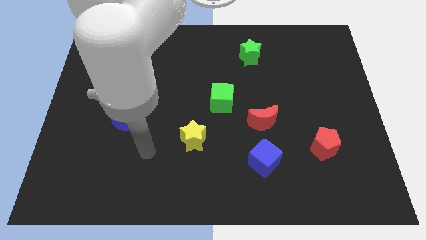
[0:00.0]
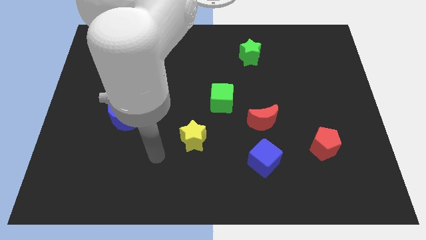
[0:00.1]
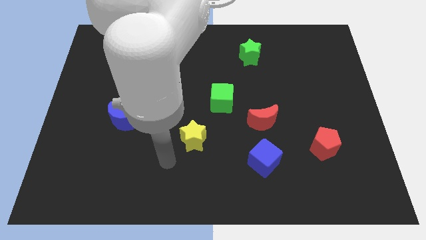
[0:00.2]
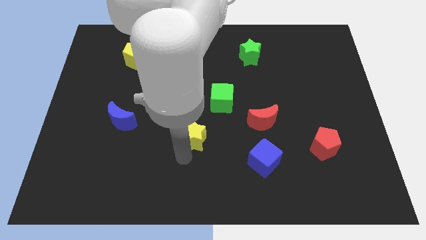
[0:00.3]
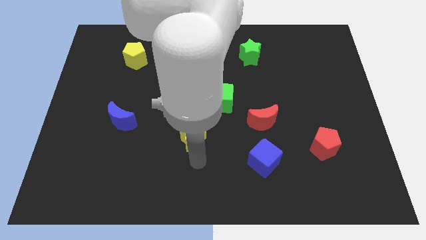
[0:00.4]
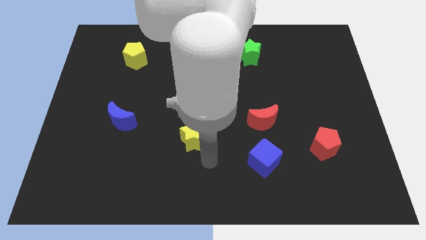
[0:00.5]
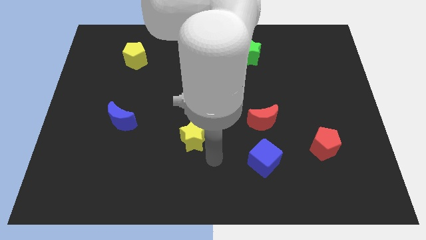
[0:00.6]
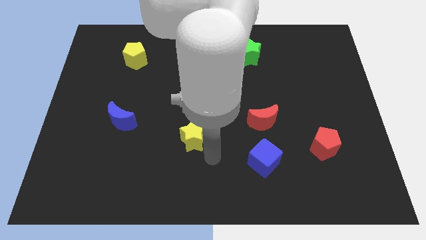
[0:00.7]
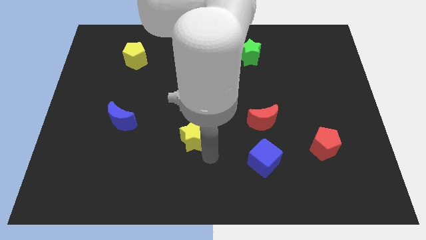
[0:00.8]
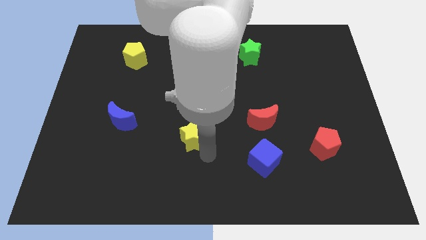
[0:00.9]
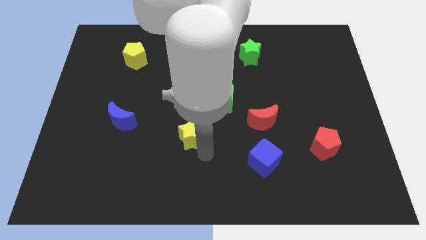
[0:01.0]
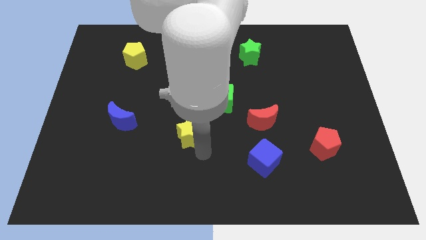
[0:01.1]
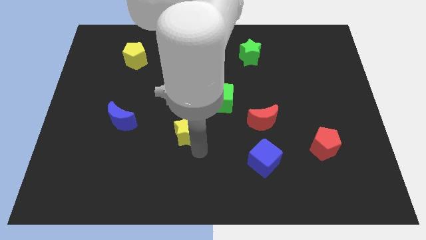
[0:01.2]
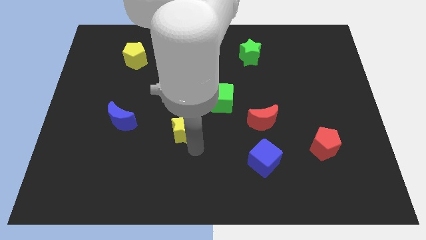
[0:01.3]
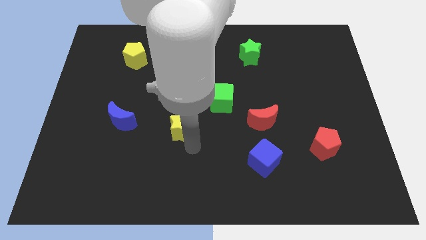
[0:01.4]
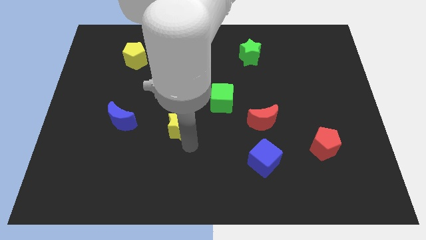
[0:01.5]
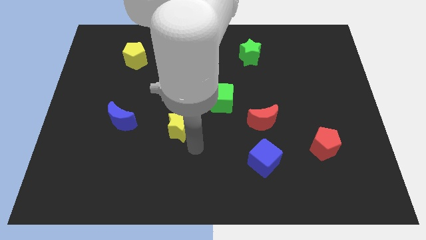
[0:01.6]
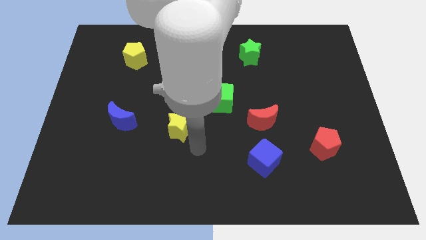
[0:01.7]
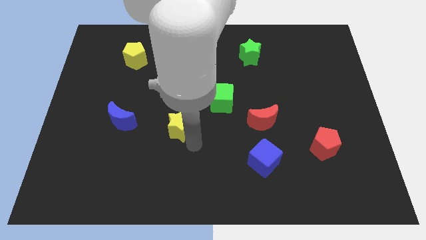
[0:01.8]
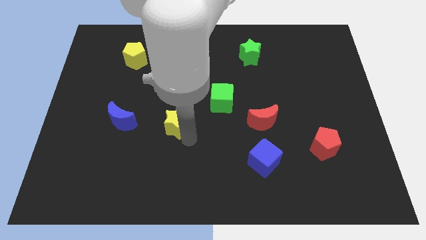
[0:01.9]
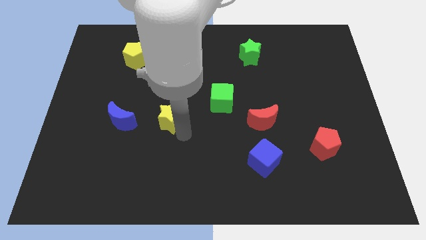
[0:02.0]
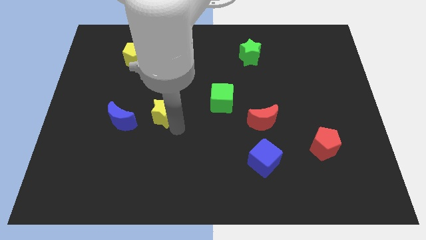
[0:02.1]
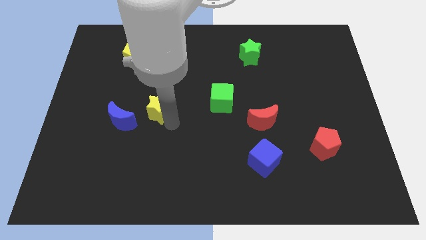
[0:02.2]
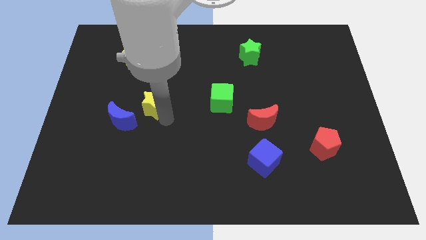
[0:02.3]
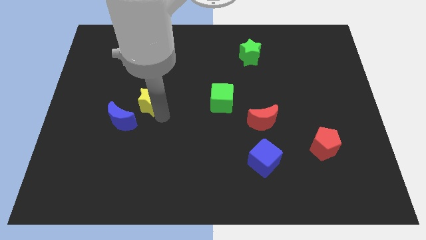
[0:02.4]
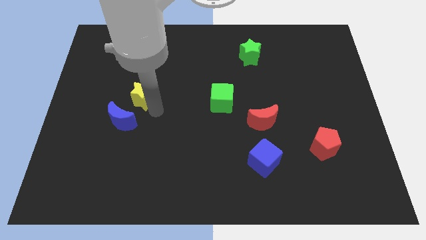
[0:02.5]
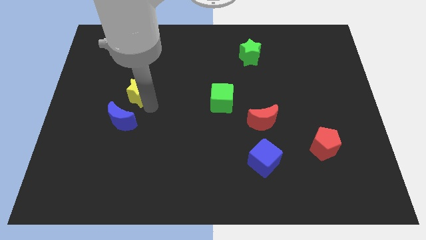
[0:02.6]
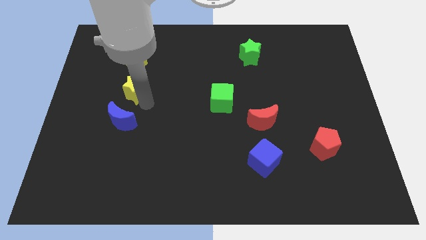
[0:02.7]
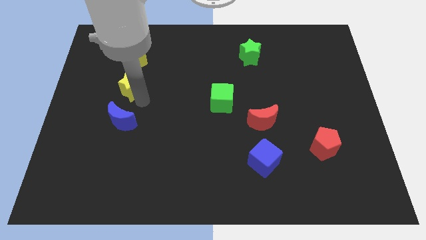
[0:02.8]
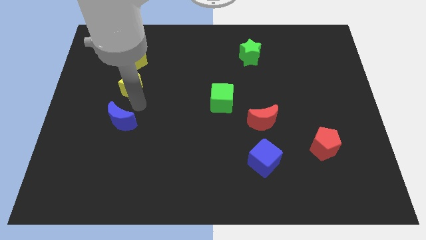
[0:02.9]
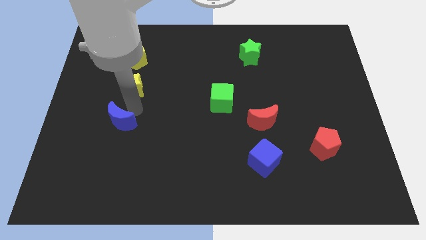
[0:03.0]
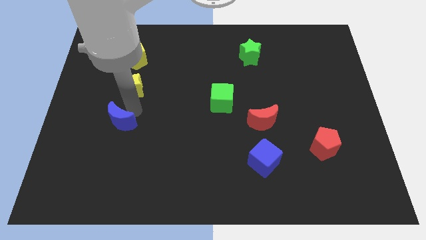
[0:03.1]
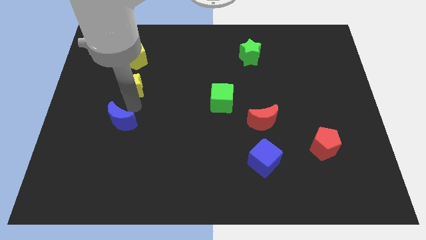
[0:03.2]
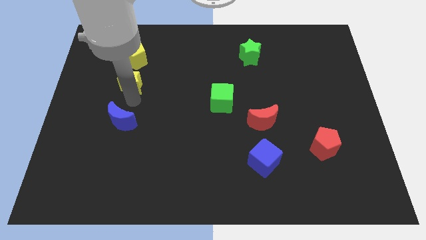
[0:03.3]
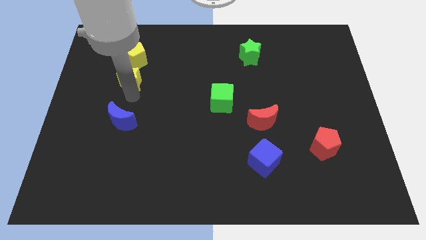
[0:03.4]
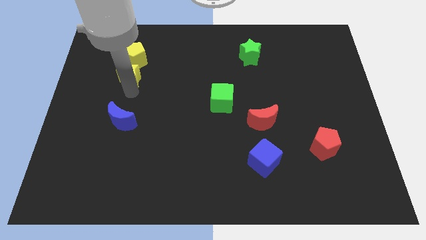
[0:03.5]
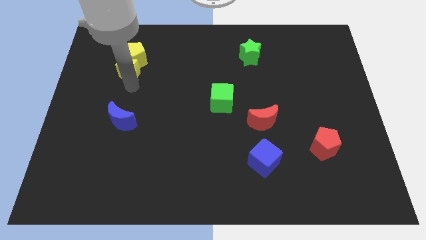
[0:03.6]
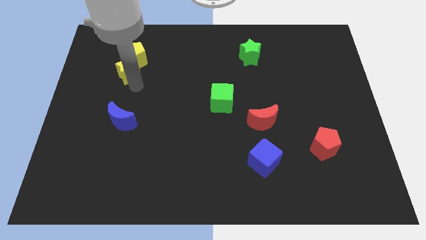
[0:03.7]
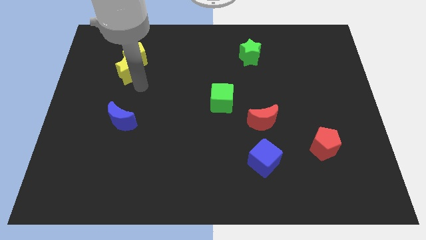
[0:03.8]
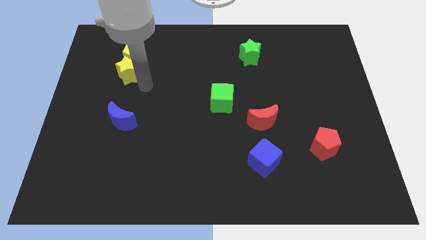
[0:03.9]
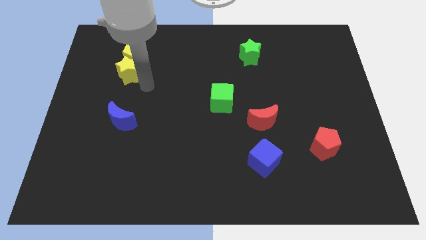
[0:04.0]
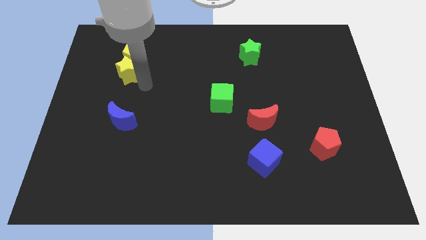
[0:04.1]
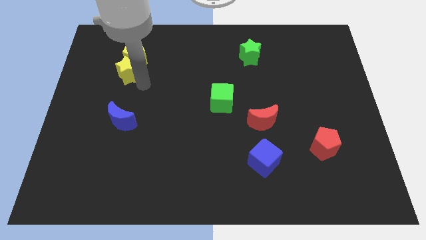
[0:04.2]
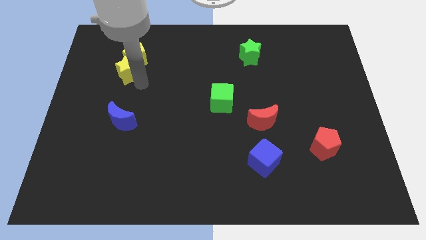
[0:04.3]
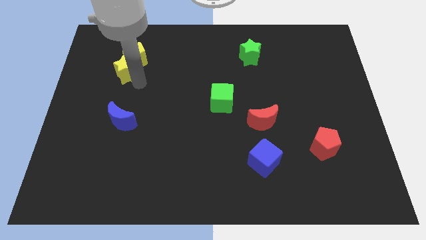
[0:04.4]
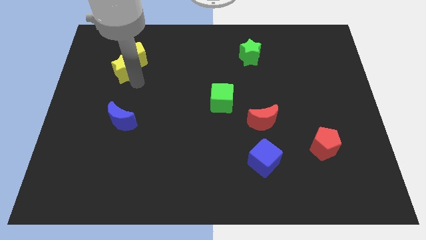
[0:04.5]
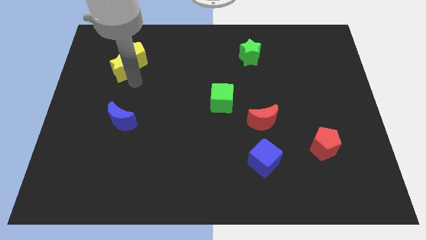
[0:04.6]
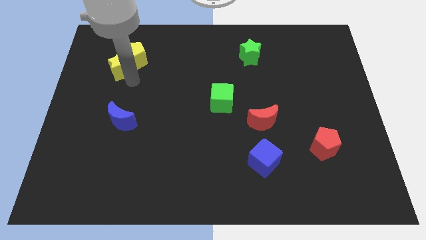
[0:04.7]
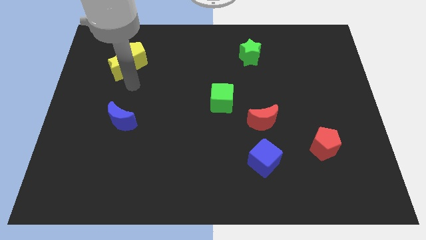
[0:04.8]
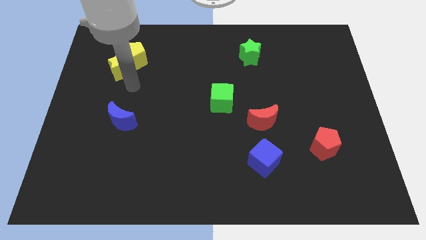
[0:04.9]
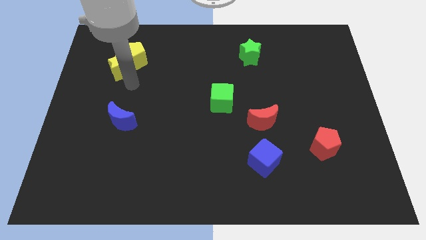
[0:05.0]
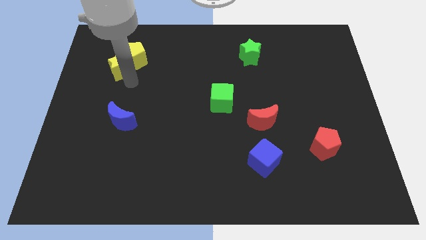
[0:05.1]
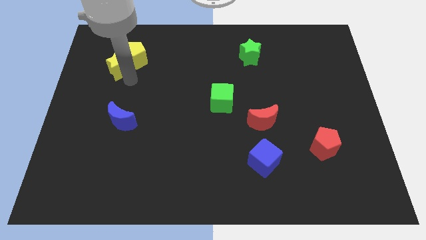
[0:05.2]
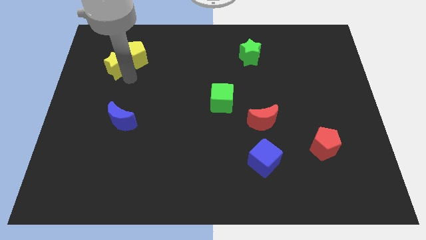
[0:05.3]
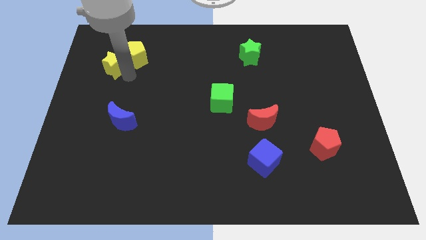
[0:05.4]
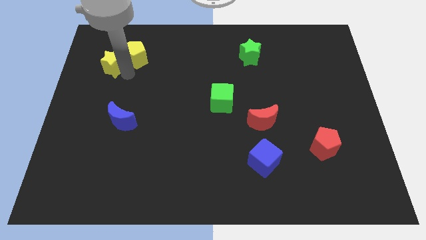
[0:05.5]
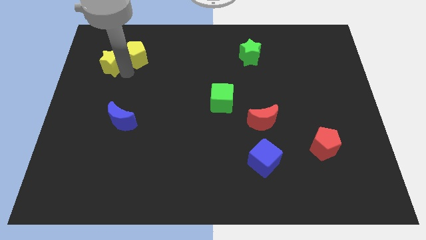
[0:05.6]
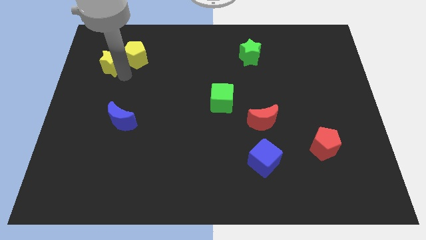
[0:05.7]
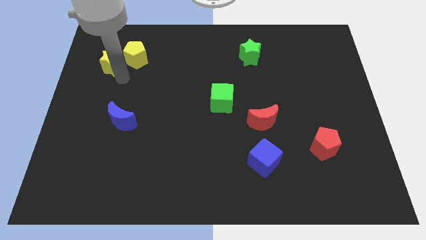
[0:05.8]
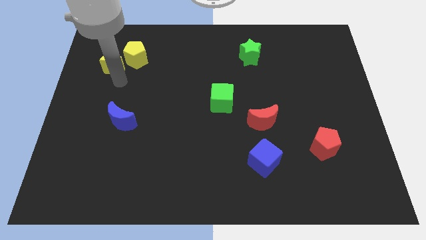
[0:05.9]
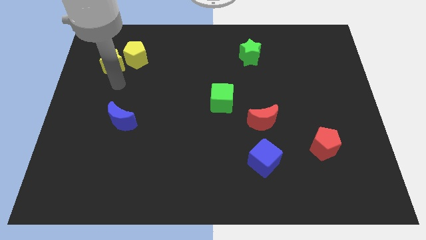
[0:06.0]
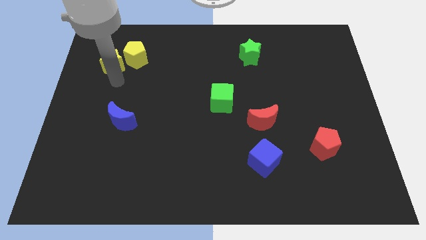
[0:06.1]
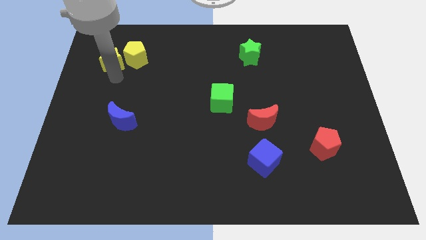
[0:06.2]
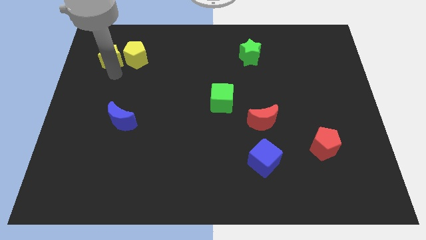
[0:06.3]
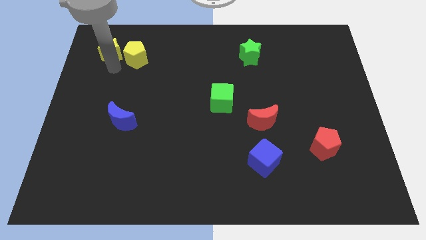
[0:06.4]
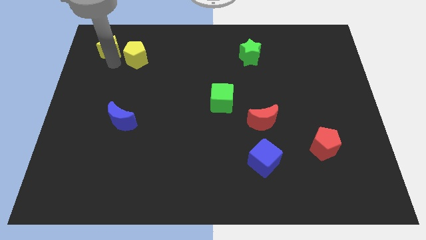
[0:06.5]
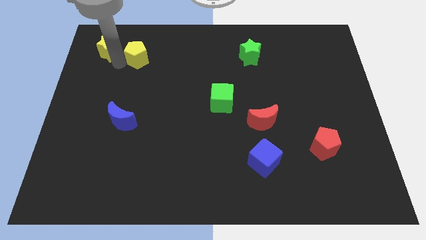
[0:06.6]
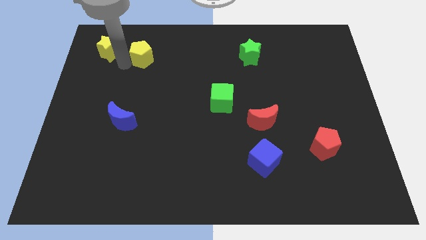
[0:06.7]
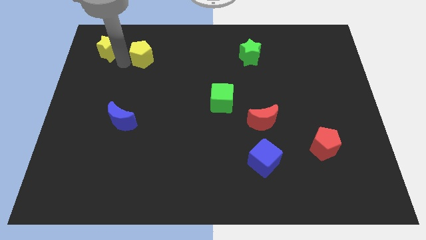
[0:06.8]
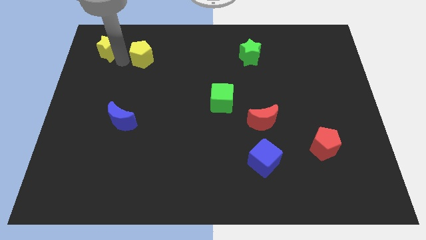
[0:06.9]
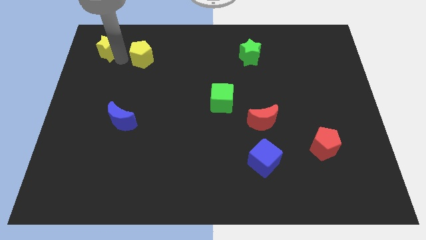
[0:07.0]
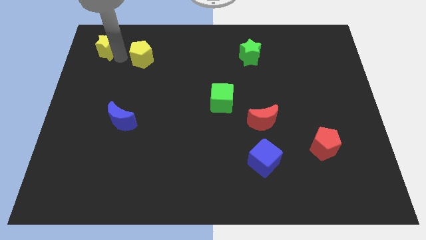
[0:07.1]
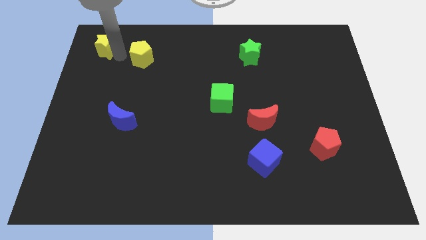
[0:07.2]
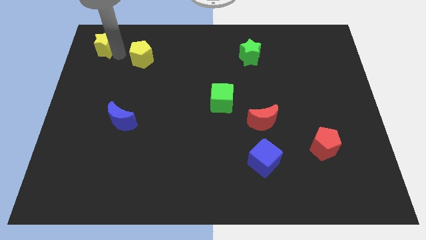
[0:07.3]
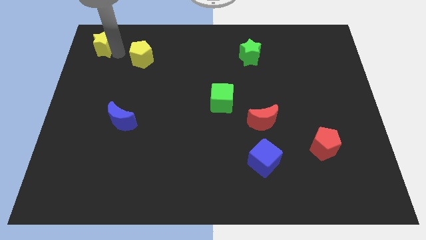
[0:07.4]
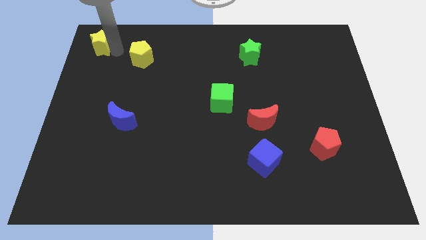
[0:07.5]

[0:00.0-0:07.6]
move the yellow star to the top left corner
